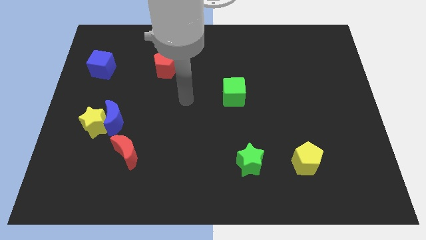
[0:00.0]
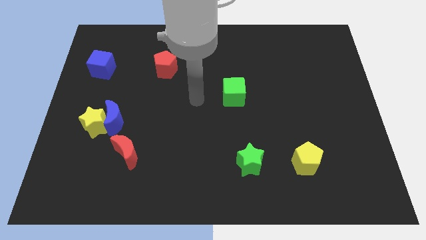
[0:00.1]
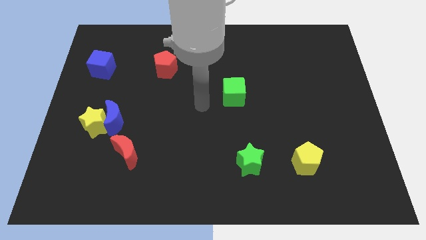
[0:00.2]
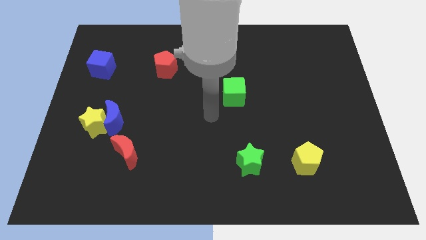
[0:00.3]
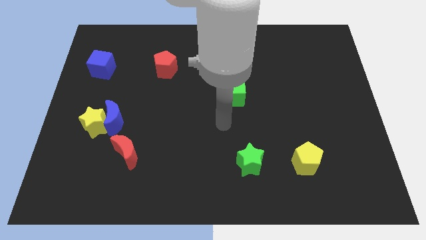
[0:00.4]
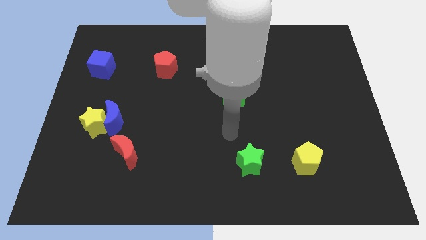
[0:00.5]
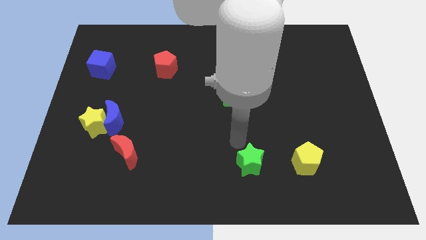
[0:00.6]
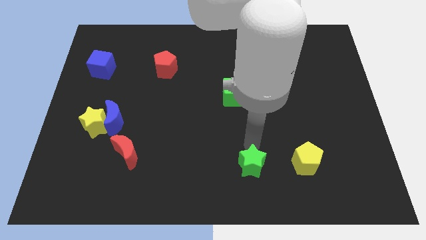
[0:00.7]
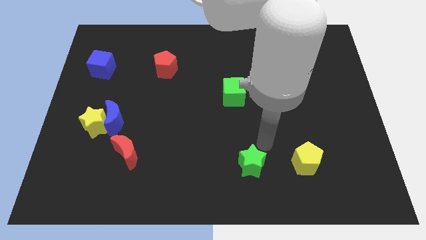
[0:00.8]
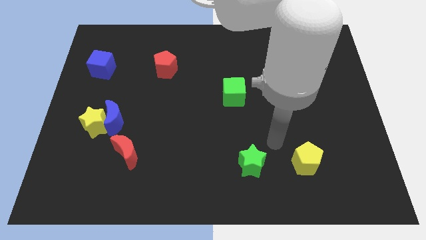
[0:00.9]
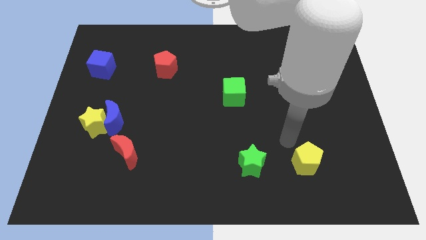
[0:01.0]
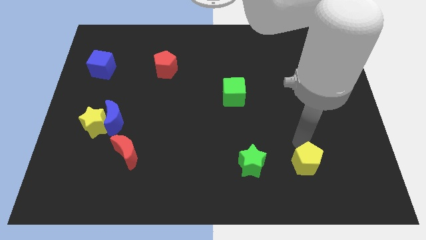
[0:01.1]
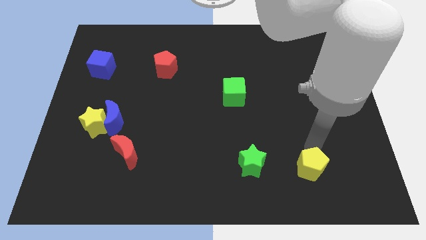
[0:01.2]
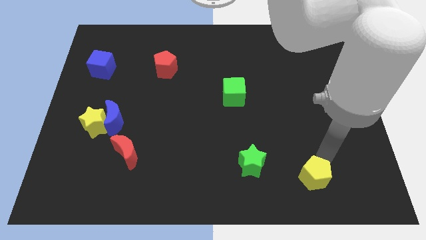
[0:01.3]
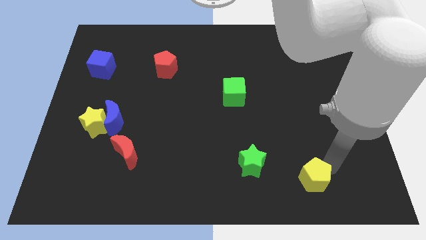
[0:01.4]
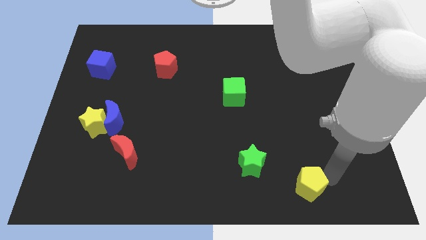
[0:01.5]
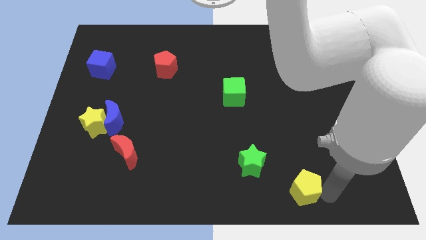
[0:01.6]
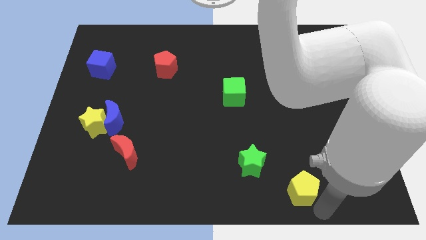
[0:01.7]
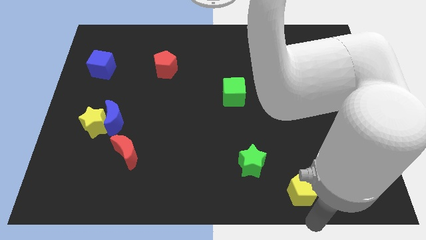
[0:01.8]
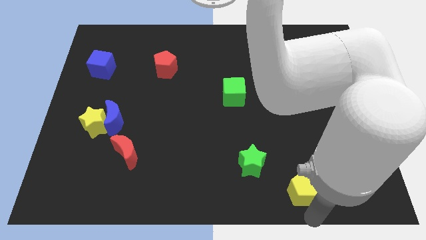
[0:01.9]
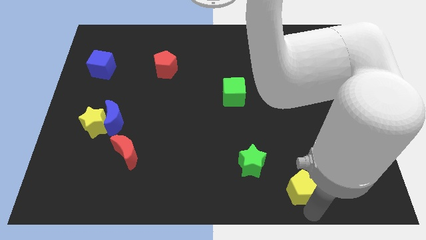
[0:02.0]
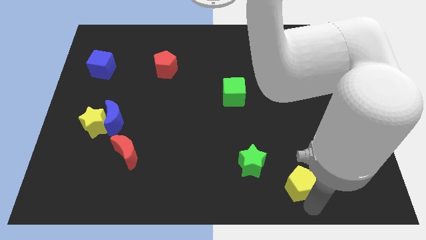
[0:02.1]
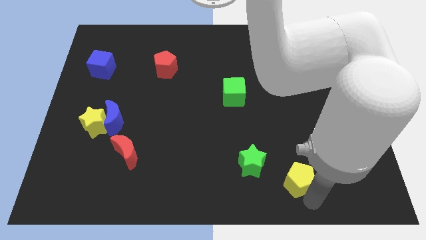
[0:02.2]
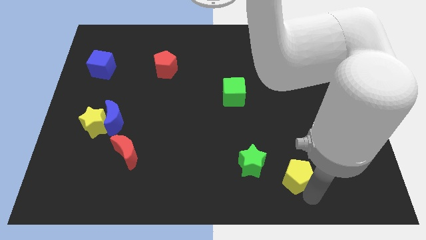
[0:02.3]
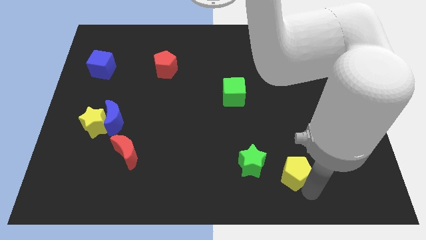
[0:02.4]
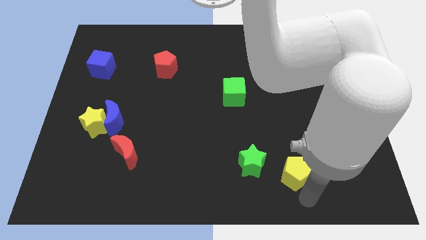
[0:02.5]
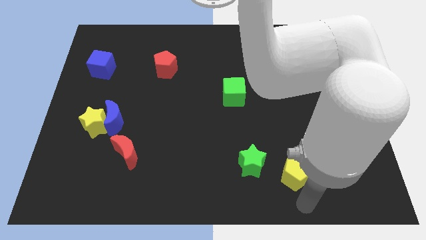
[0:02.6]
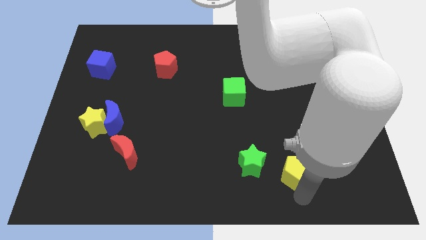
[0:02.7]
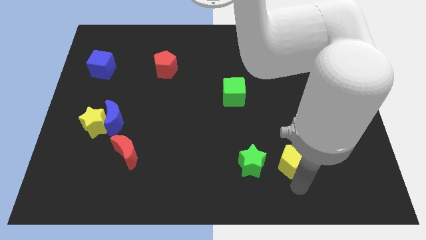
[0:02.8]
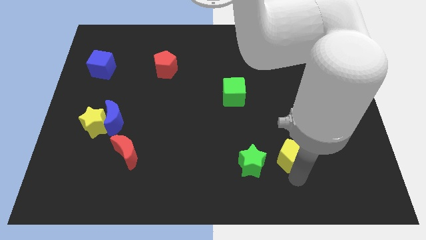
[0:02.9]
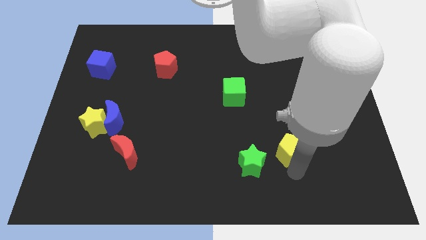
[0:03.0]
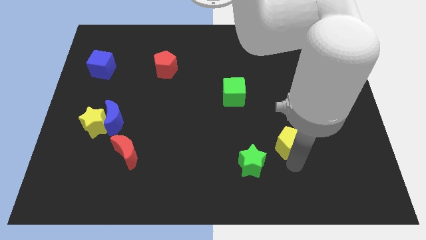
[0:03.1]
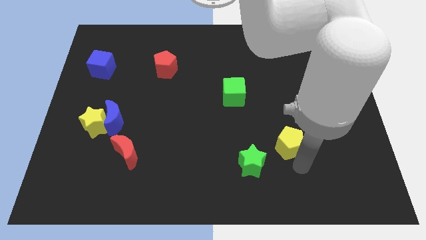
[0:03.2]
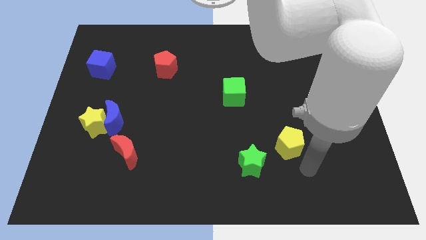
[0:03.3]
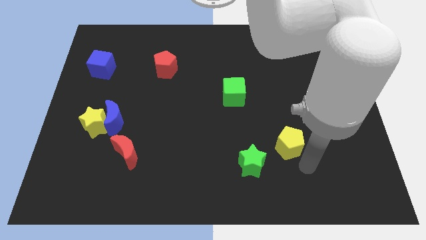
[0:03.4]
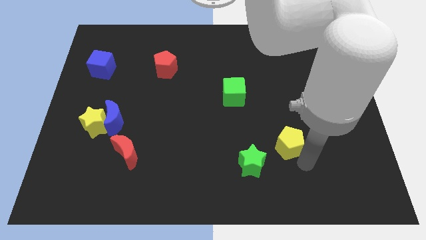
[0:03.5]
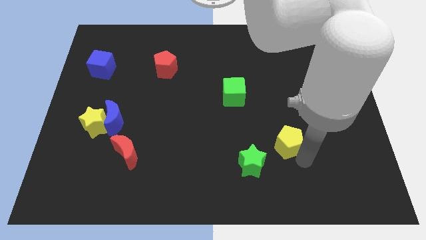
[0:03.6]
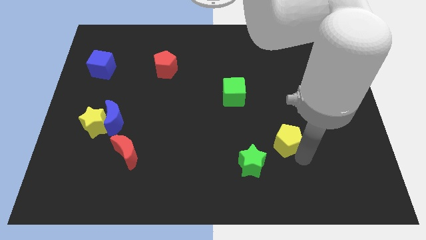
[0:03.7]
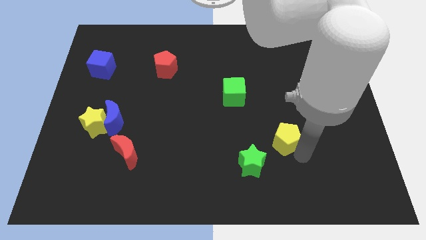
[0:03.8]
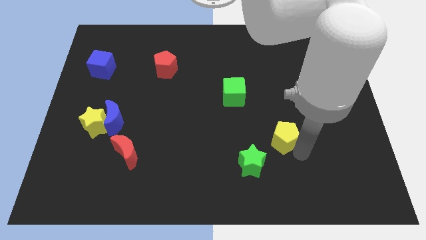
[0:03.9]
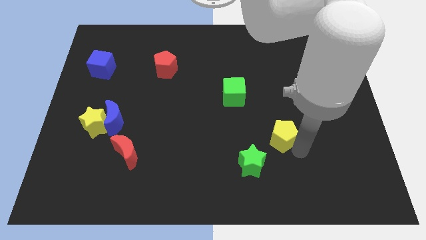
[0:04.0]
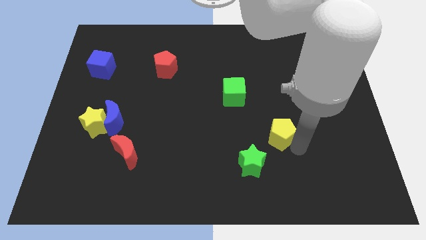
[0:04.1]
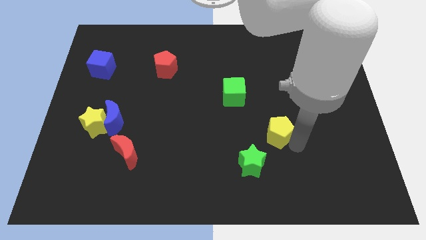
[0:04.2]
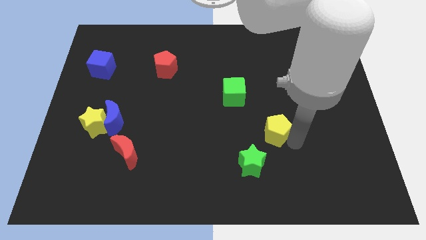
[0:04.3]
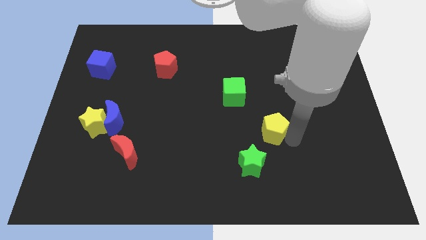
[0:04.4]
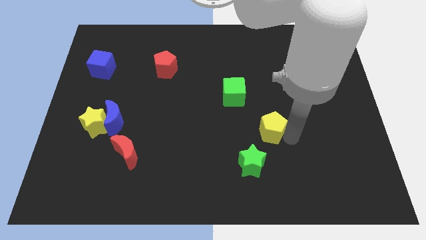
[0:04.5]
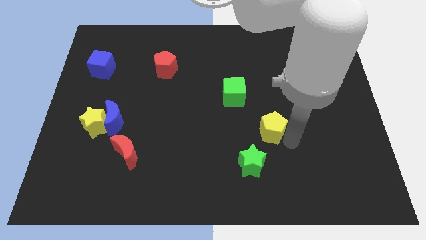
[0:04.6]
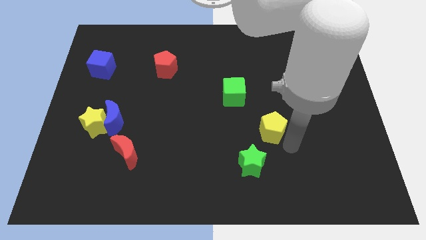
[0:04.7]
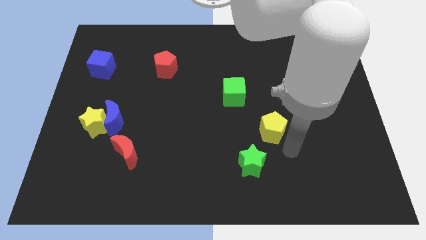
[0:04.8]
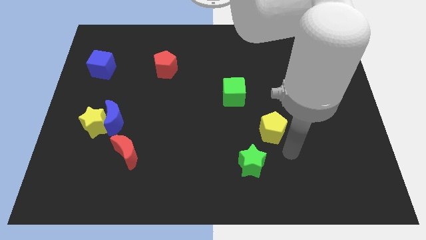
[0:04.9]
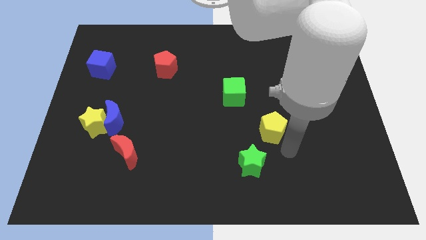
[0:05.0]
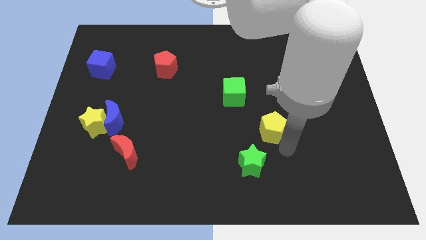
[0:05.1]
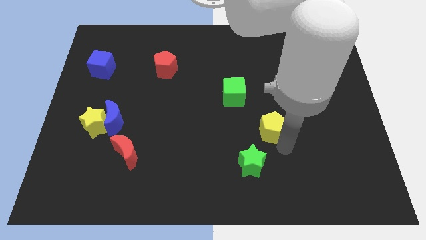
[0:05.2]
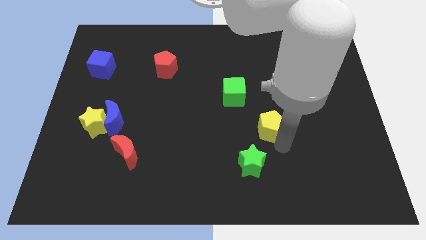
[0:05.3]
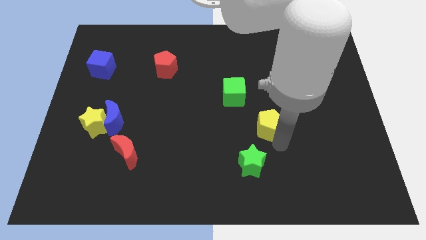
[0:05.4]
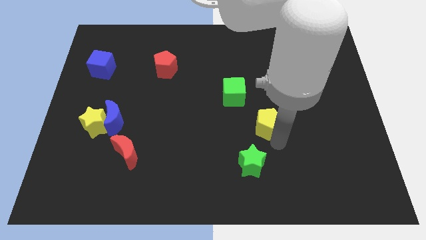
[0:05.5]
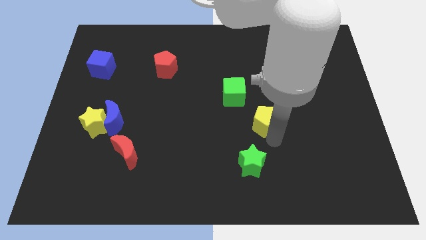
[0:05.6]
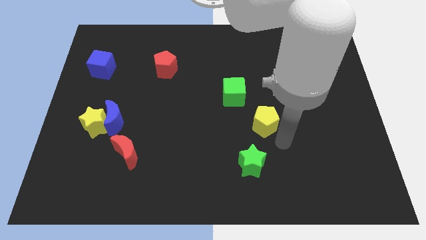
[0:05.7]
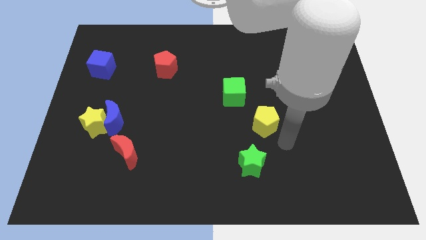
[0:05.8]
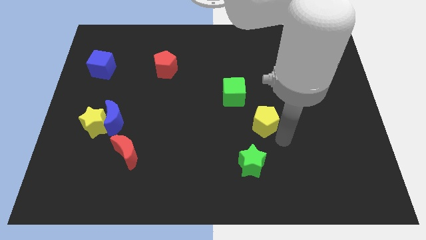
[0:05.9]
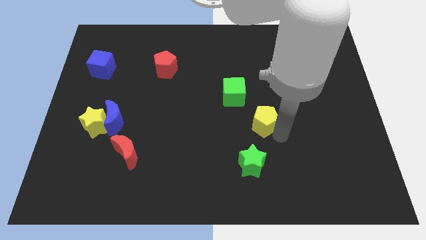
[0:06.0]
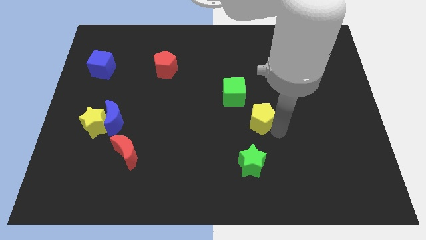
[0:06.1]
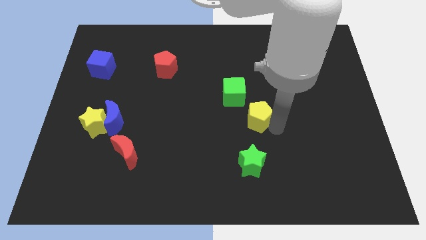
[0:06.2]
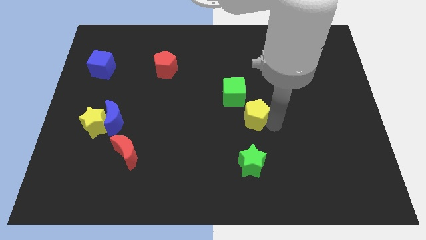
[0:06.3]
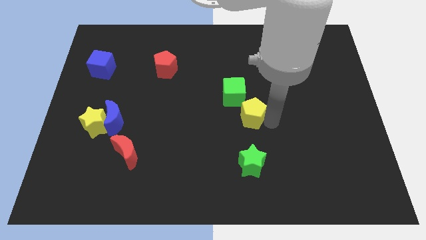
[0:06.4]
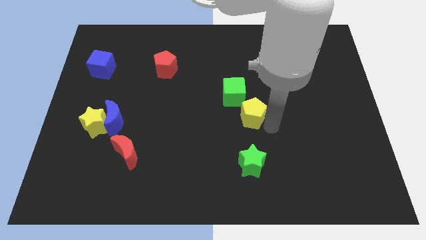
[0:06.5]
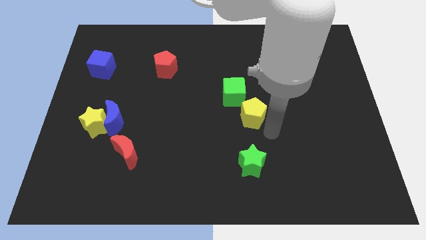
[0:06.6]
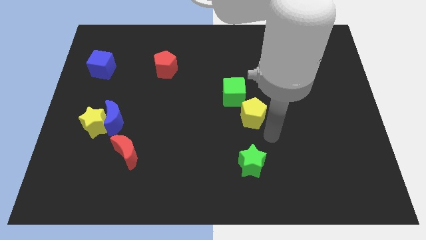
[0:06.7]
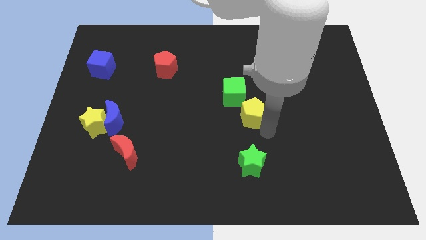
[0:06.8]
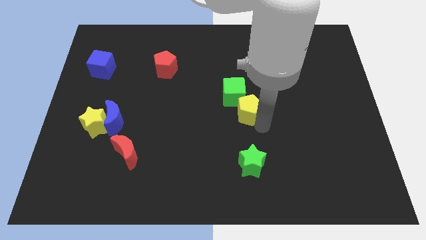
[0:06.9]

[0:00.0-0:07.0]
push the yellow pentagon next to the green cube

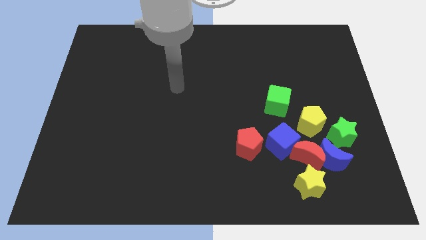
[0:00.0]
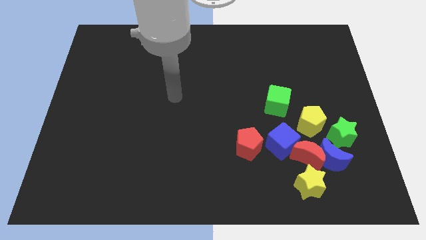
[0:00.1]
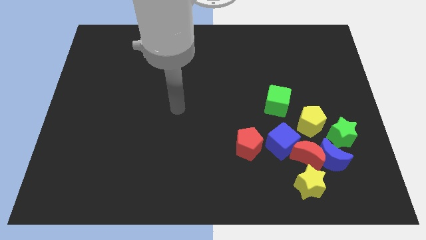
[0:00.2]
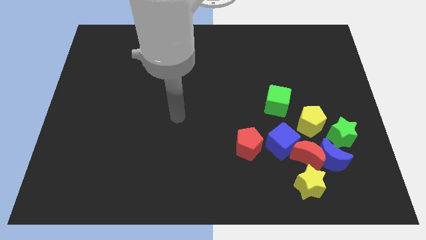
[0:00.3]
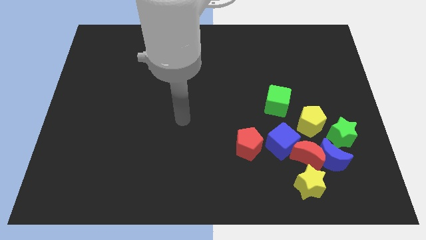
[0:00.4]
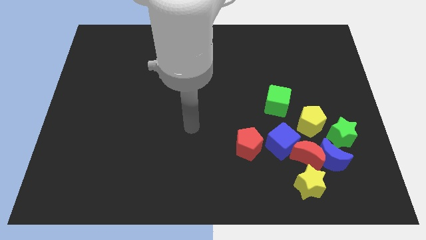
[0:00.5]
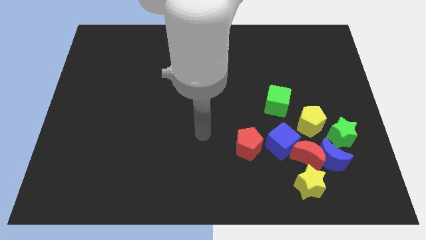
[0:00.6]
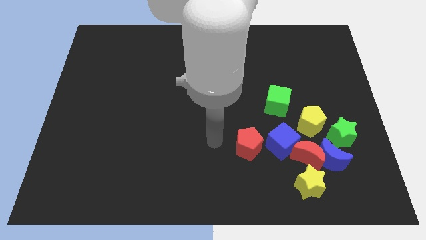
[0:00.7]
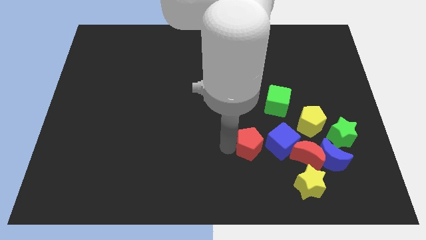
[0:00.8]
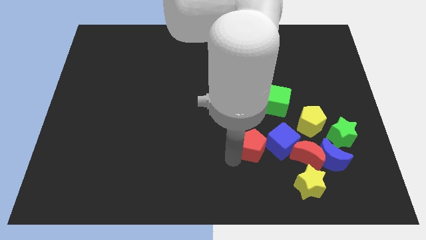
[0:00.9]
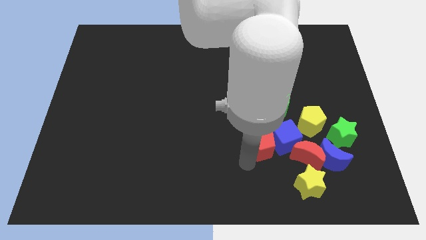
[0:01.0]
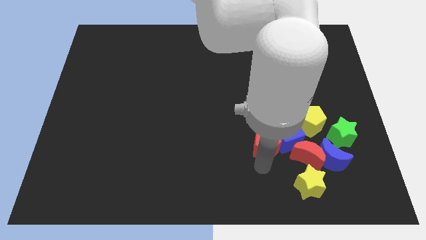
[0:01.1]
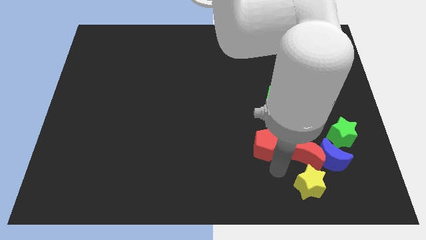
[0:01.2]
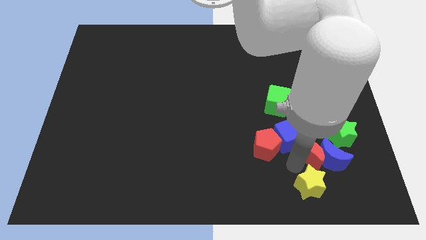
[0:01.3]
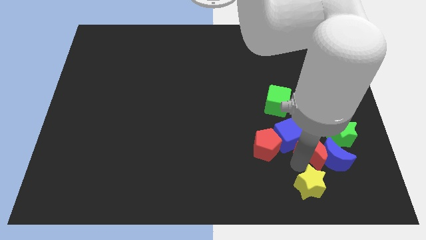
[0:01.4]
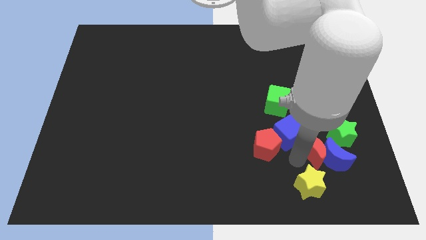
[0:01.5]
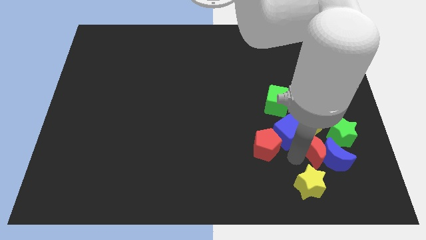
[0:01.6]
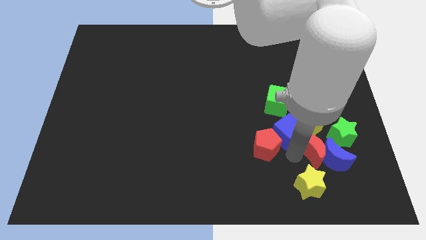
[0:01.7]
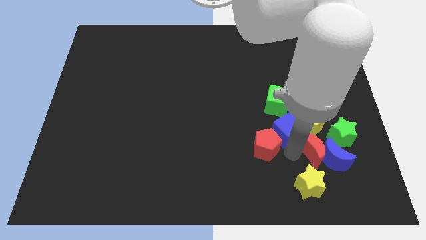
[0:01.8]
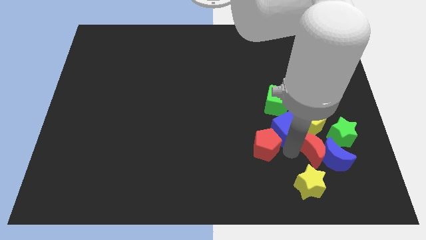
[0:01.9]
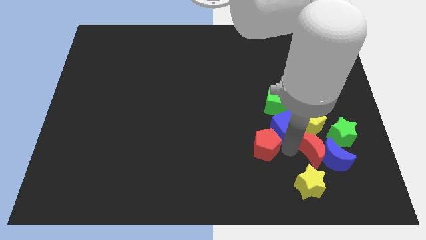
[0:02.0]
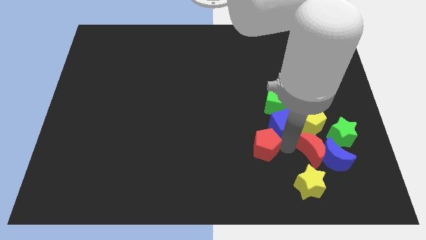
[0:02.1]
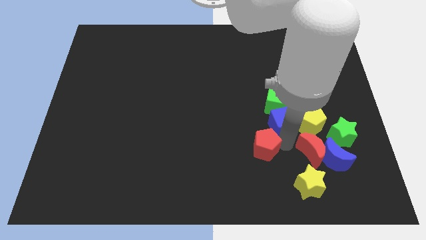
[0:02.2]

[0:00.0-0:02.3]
push the blue cube towards the green cube
